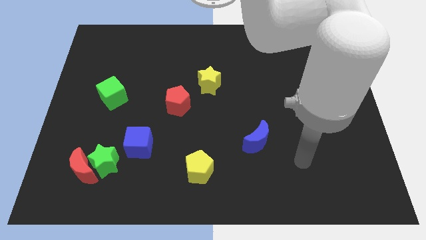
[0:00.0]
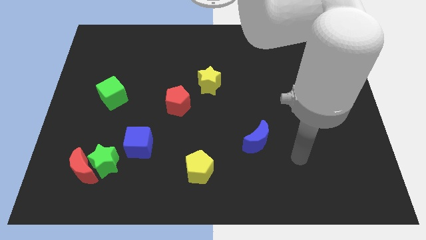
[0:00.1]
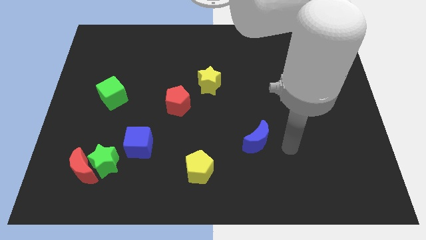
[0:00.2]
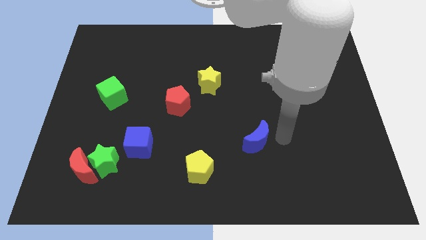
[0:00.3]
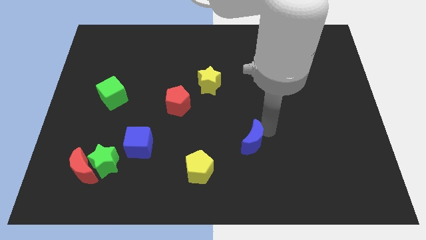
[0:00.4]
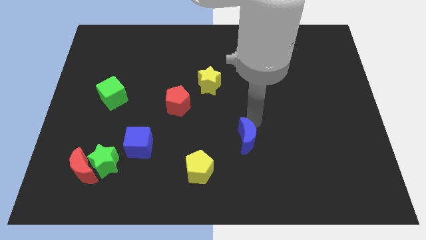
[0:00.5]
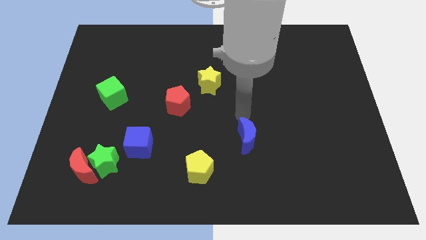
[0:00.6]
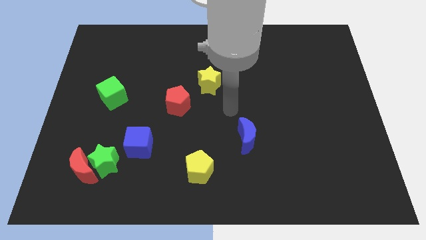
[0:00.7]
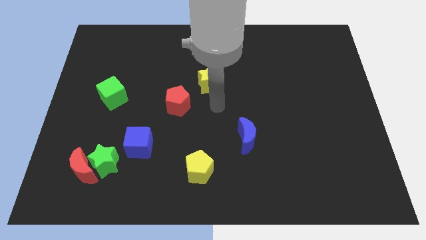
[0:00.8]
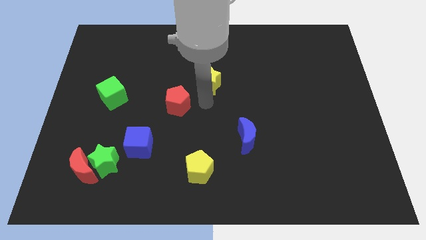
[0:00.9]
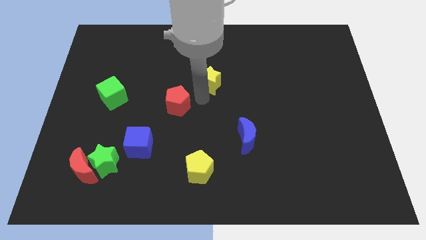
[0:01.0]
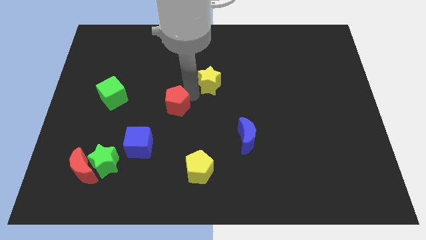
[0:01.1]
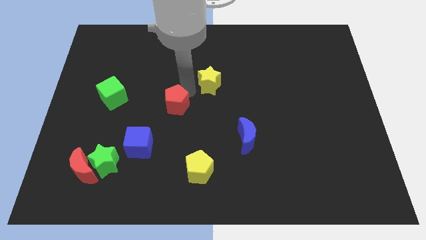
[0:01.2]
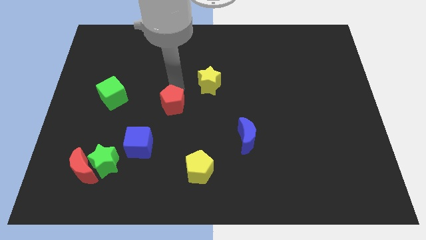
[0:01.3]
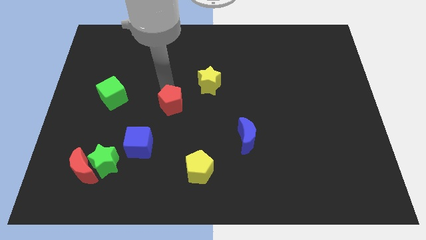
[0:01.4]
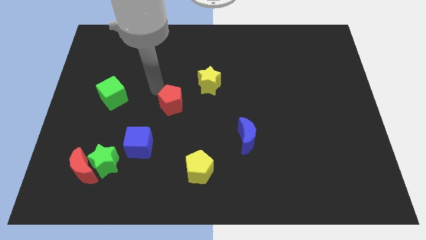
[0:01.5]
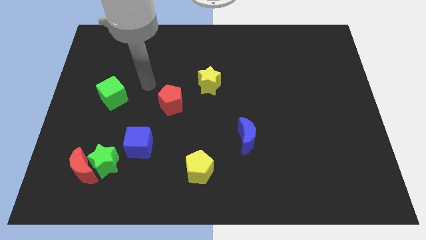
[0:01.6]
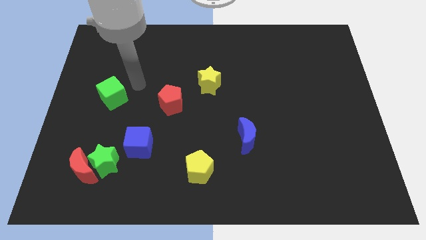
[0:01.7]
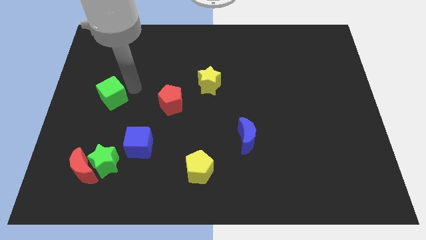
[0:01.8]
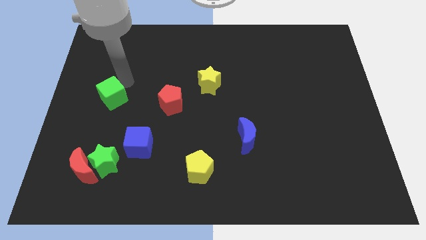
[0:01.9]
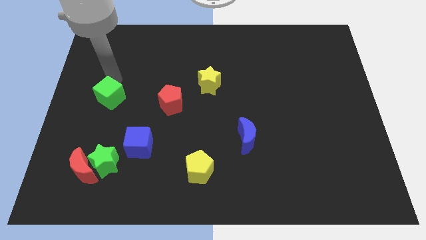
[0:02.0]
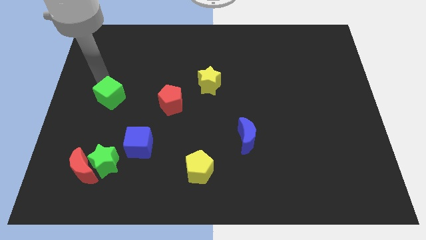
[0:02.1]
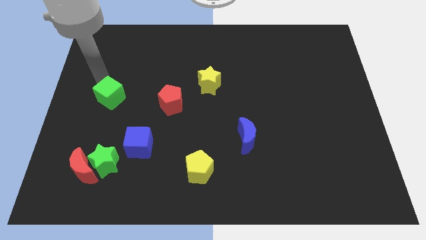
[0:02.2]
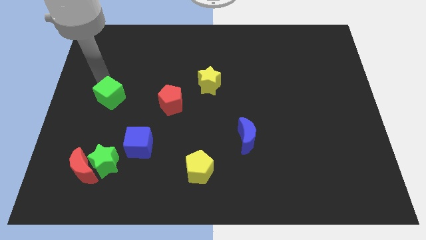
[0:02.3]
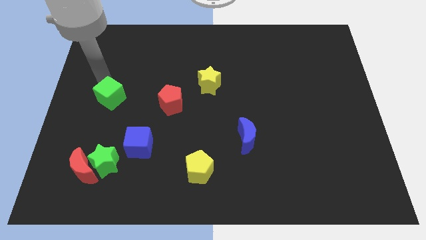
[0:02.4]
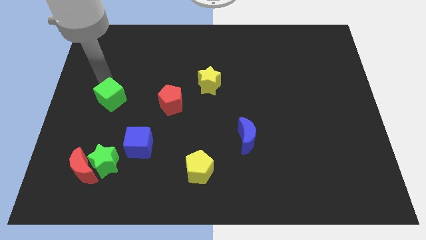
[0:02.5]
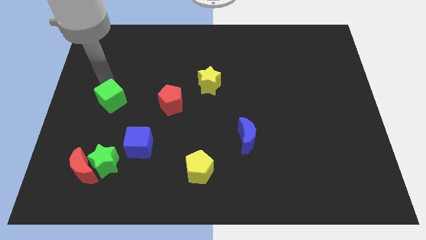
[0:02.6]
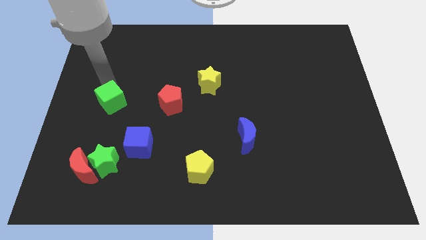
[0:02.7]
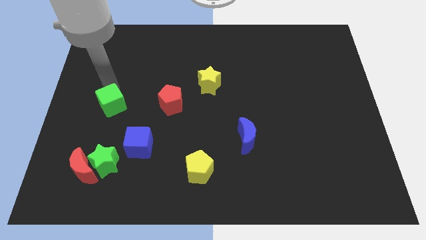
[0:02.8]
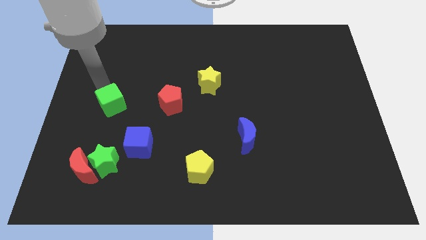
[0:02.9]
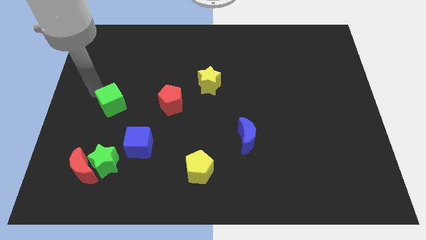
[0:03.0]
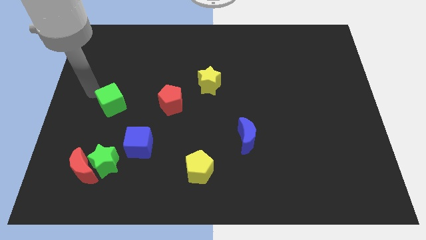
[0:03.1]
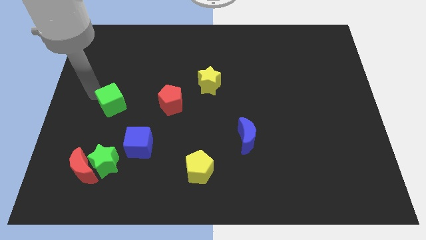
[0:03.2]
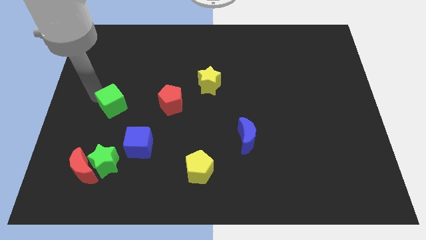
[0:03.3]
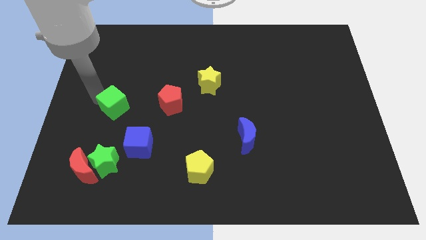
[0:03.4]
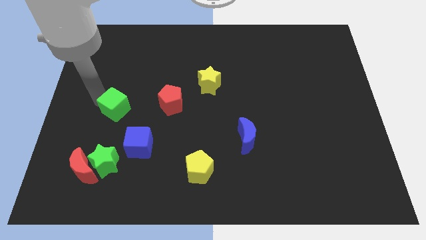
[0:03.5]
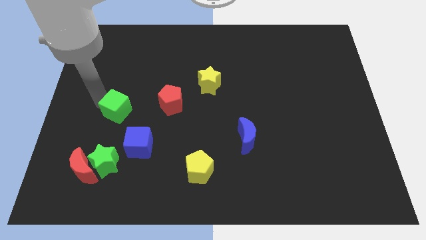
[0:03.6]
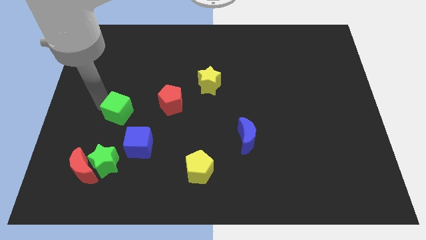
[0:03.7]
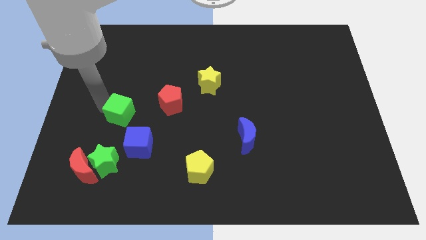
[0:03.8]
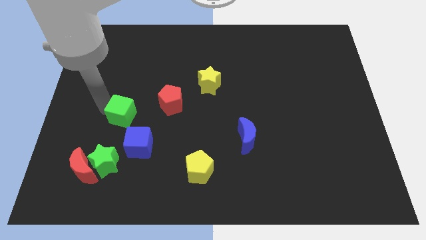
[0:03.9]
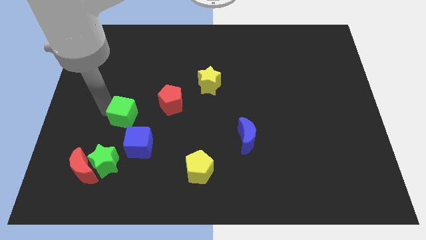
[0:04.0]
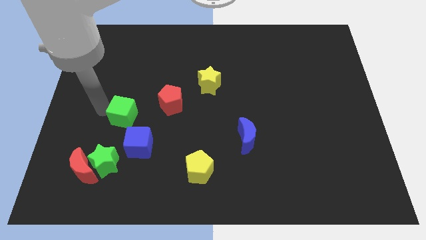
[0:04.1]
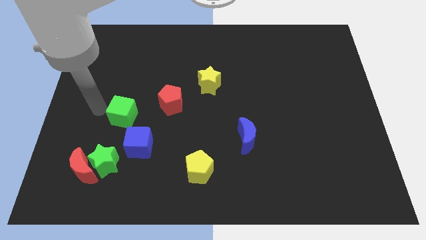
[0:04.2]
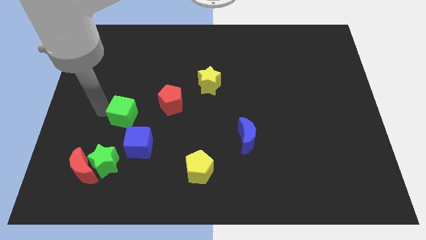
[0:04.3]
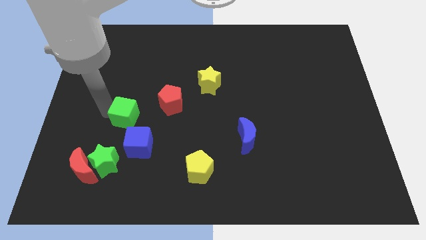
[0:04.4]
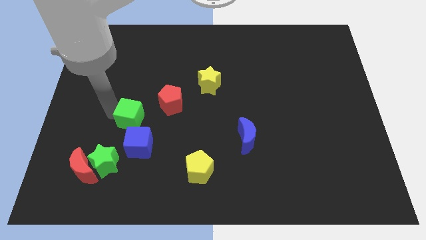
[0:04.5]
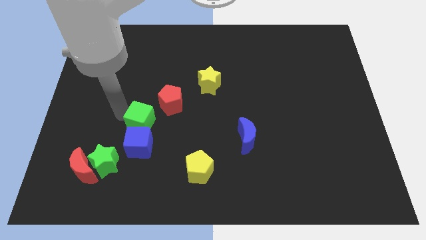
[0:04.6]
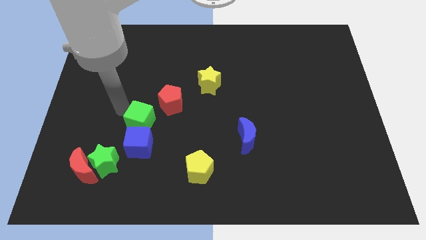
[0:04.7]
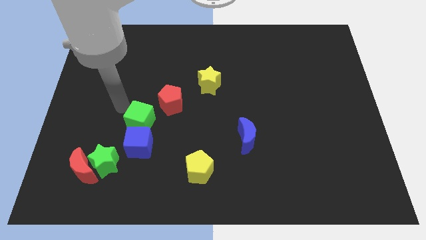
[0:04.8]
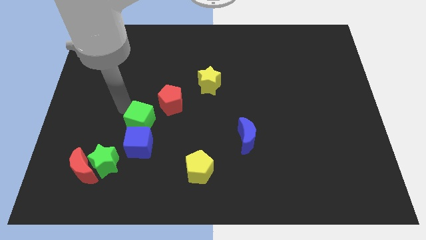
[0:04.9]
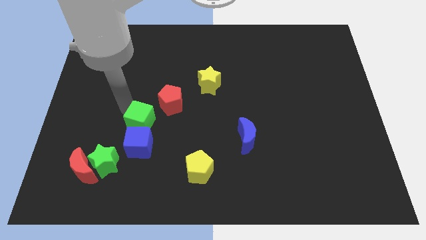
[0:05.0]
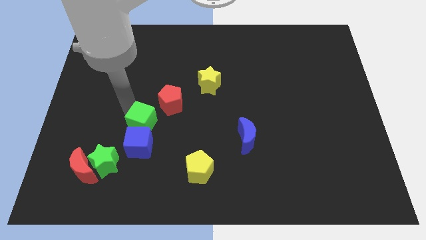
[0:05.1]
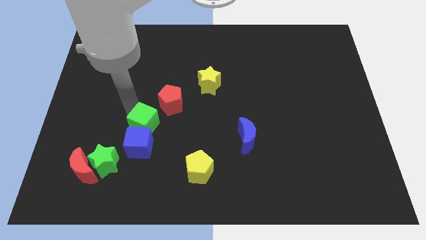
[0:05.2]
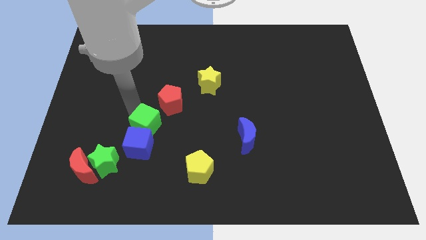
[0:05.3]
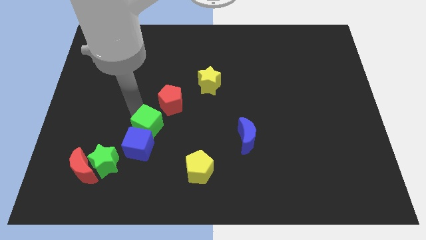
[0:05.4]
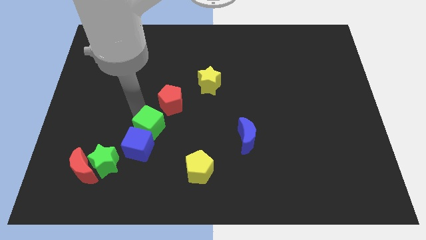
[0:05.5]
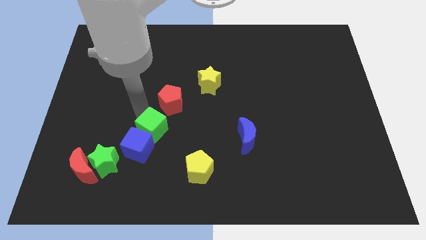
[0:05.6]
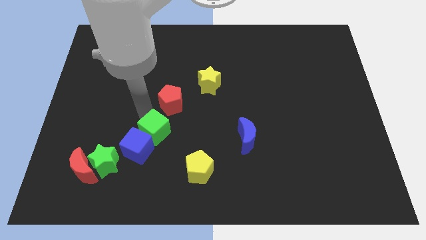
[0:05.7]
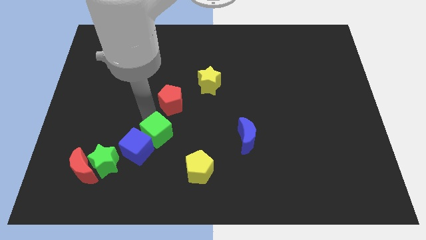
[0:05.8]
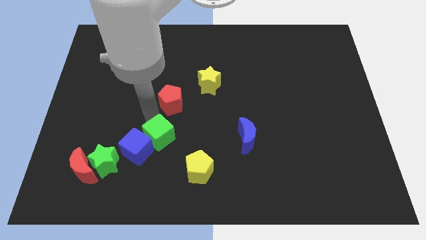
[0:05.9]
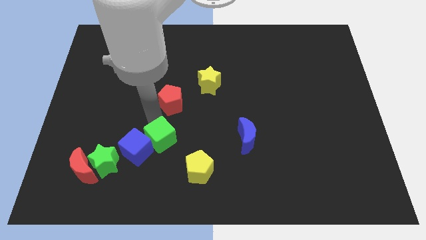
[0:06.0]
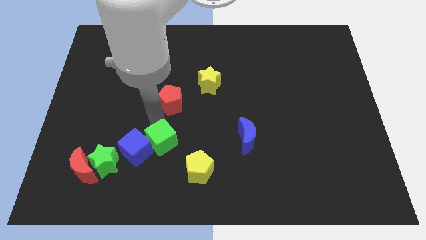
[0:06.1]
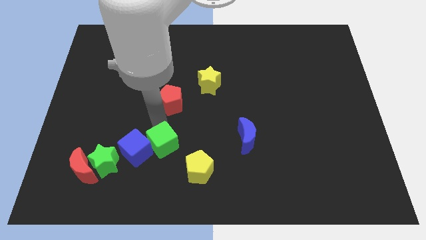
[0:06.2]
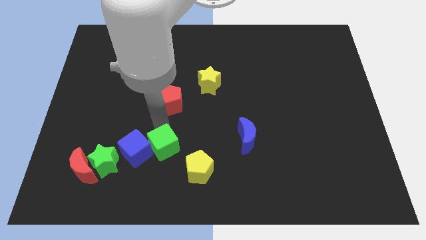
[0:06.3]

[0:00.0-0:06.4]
push the green cube just right of the green star
